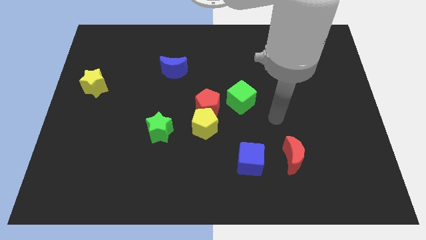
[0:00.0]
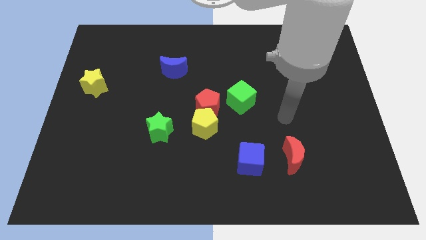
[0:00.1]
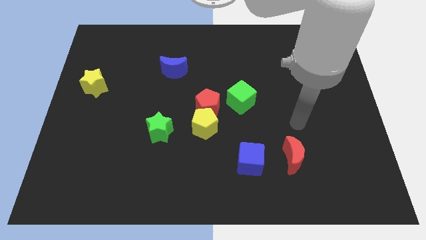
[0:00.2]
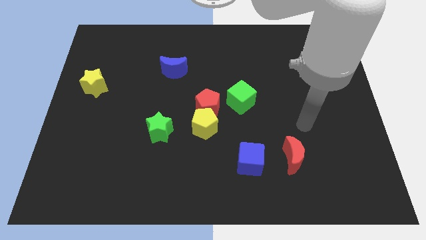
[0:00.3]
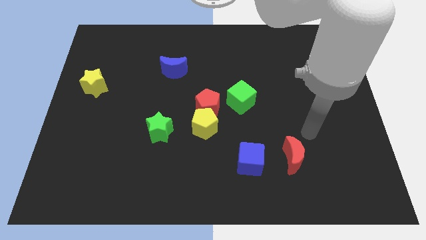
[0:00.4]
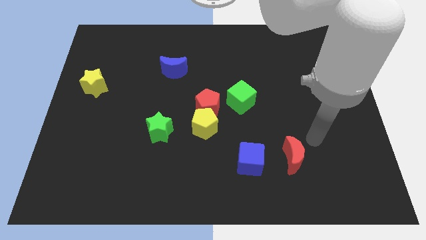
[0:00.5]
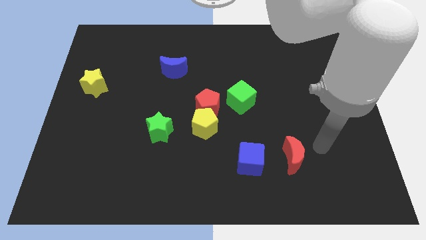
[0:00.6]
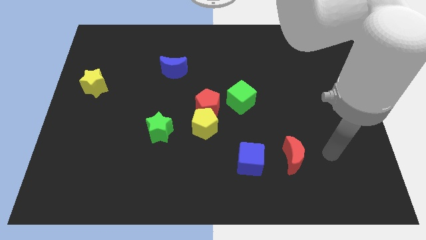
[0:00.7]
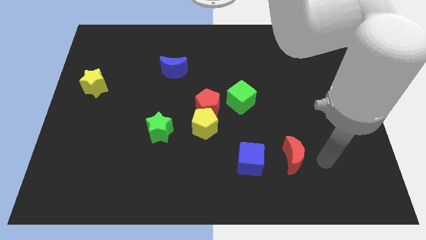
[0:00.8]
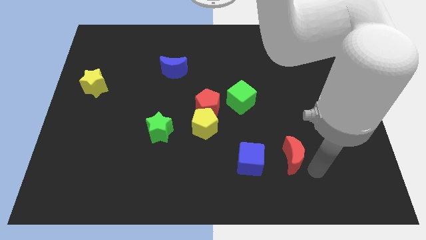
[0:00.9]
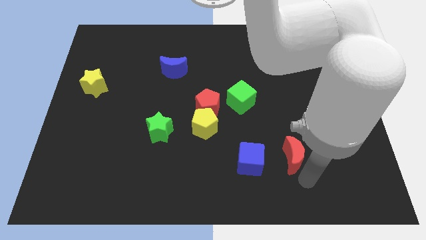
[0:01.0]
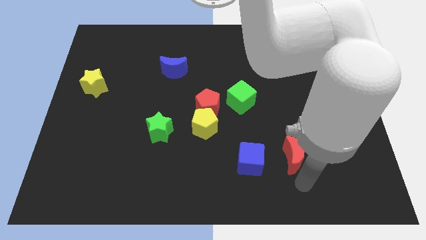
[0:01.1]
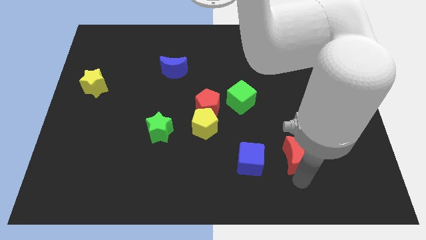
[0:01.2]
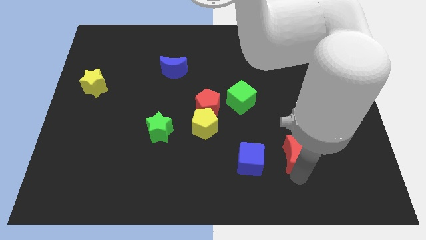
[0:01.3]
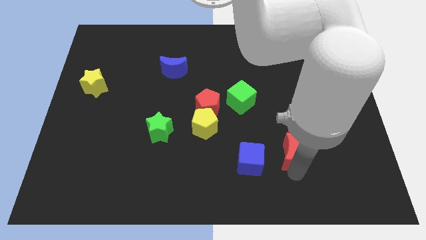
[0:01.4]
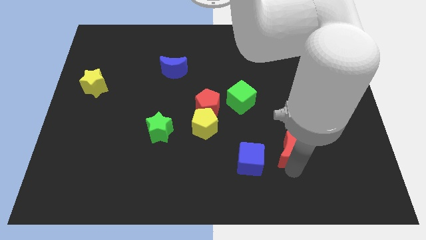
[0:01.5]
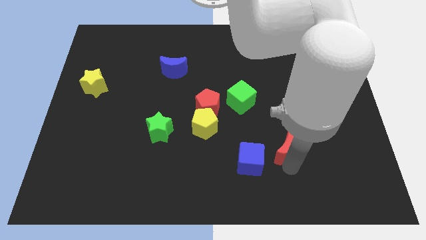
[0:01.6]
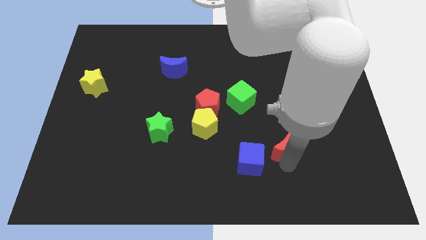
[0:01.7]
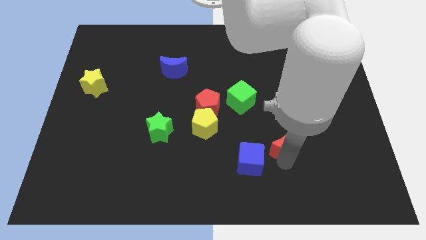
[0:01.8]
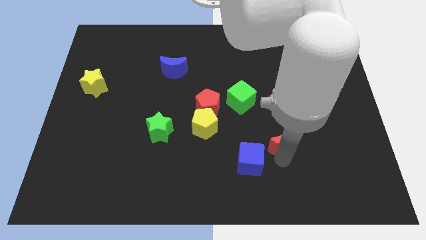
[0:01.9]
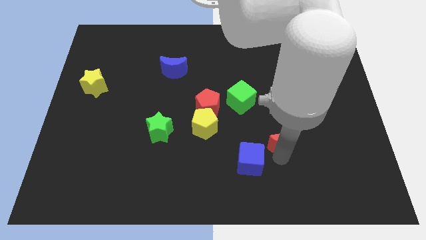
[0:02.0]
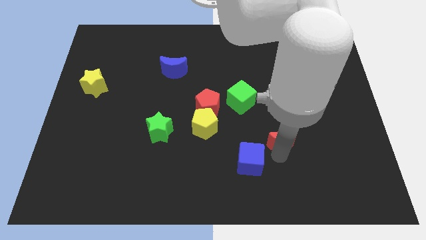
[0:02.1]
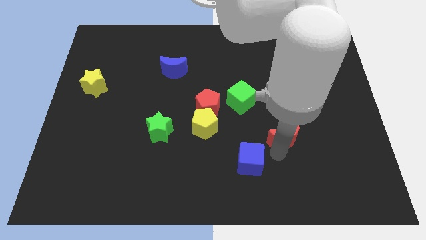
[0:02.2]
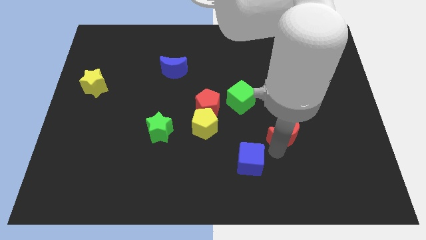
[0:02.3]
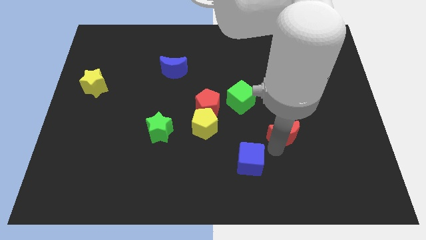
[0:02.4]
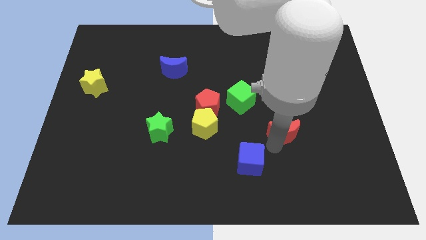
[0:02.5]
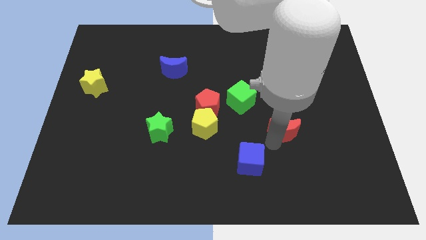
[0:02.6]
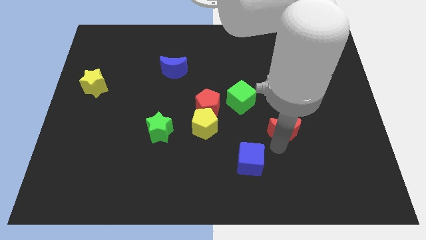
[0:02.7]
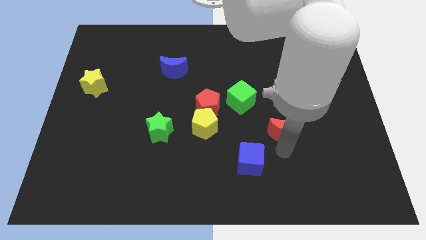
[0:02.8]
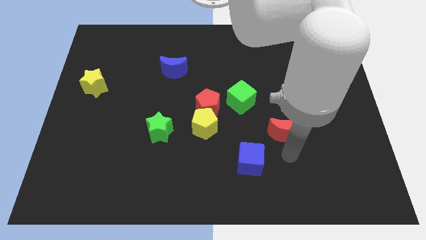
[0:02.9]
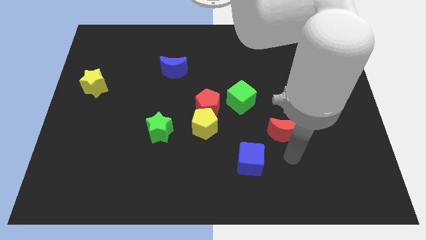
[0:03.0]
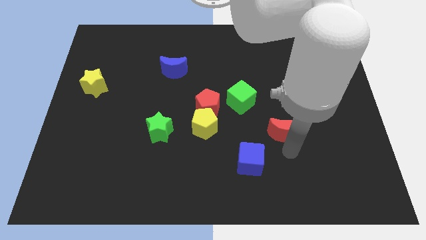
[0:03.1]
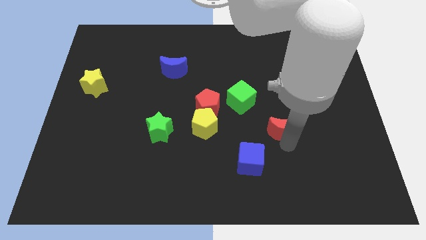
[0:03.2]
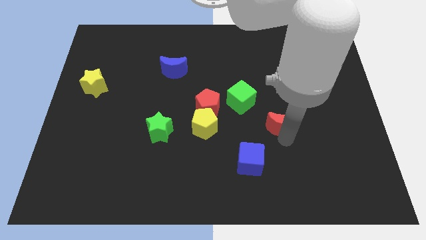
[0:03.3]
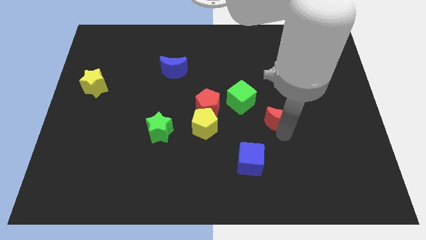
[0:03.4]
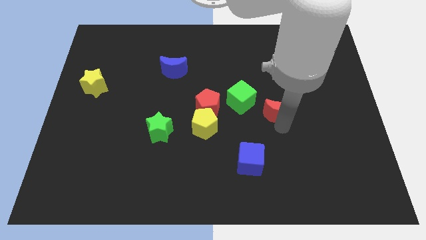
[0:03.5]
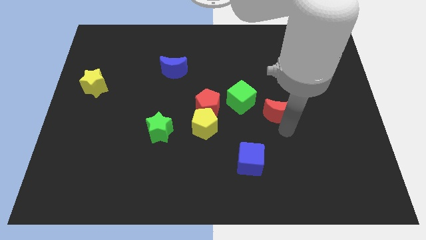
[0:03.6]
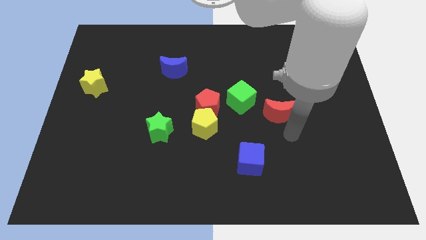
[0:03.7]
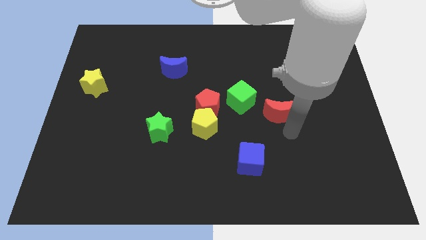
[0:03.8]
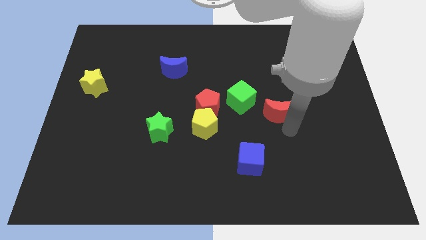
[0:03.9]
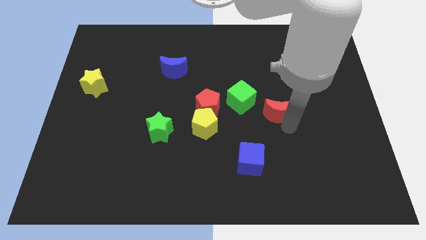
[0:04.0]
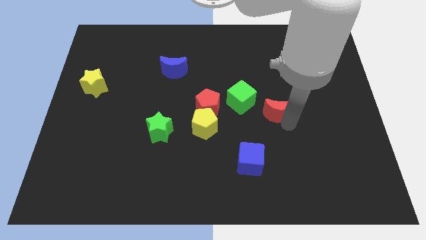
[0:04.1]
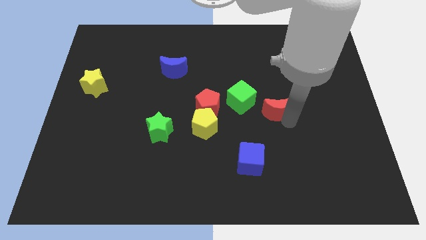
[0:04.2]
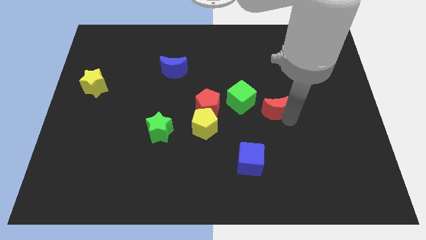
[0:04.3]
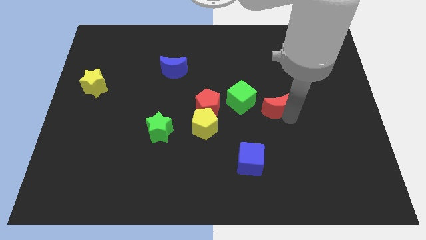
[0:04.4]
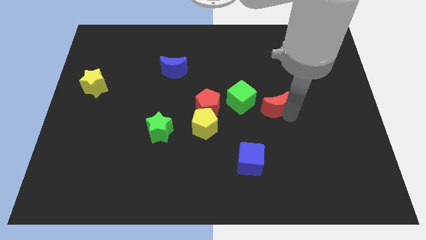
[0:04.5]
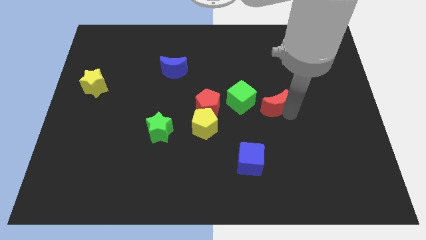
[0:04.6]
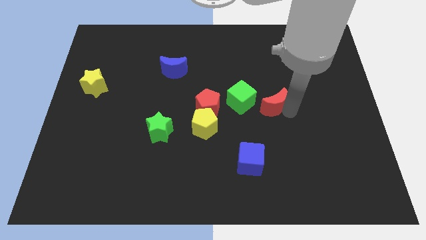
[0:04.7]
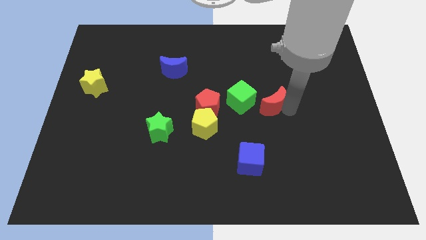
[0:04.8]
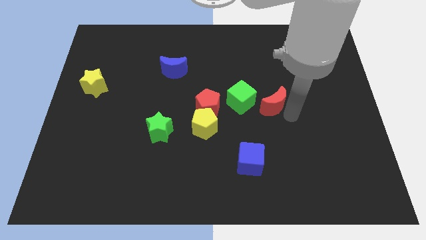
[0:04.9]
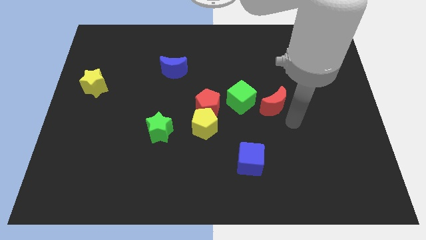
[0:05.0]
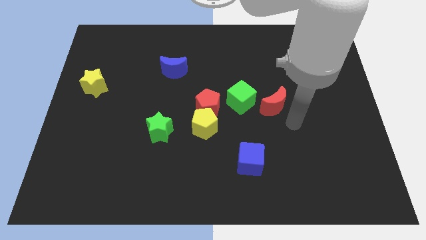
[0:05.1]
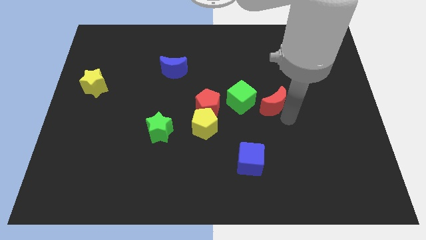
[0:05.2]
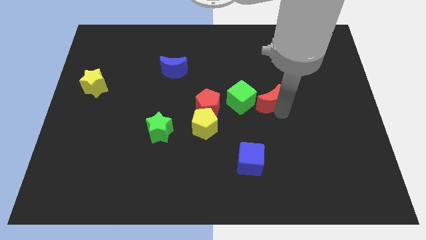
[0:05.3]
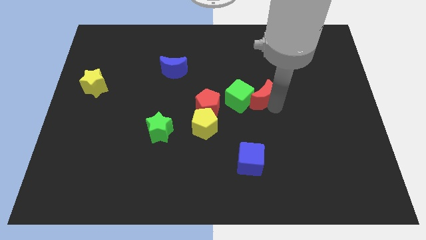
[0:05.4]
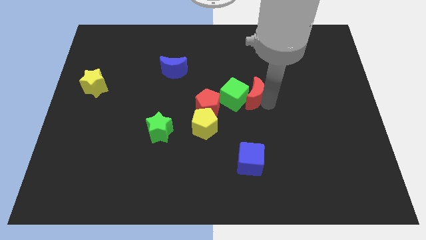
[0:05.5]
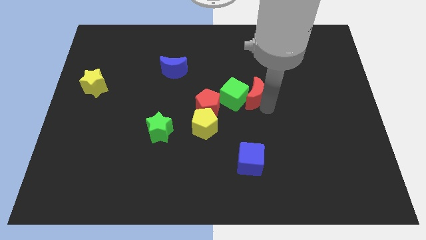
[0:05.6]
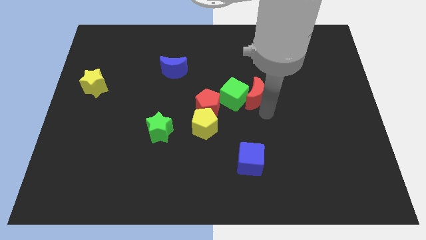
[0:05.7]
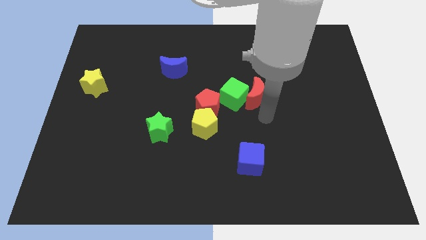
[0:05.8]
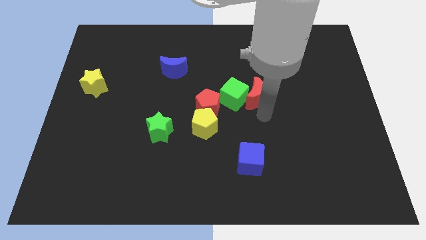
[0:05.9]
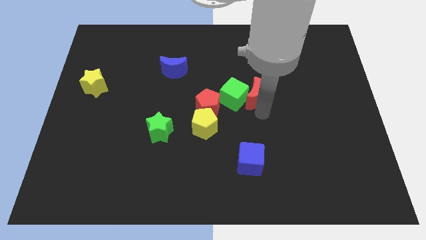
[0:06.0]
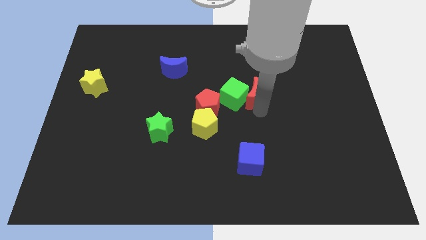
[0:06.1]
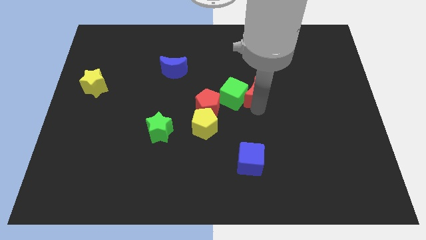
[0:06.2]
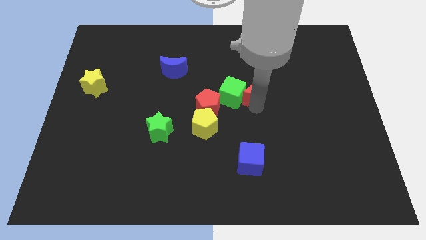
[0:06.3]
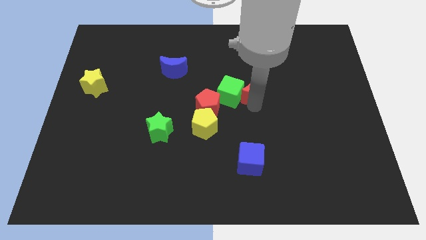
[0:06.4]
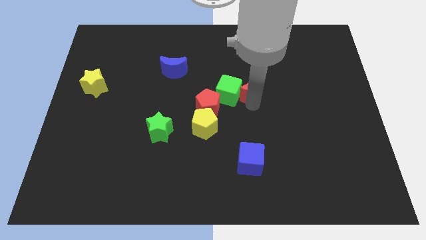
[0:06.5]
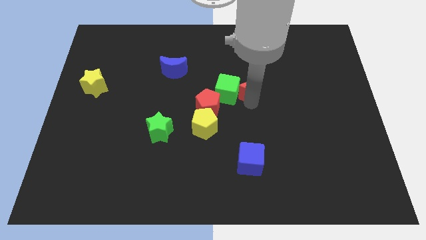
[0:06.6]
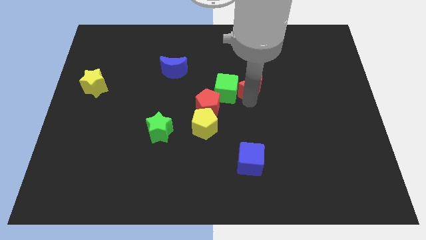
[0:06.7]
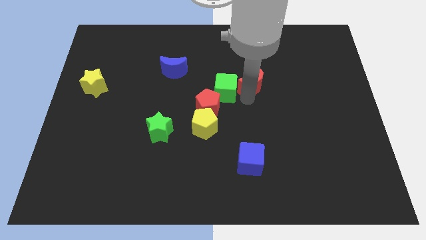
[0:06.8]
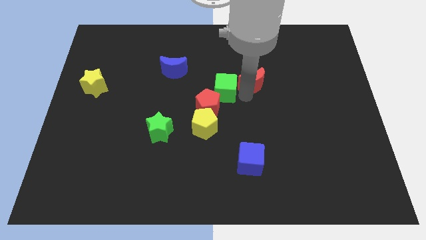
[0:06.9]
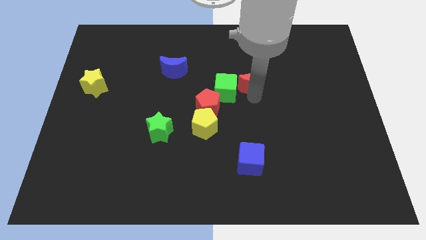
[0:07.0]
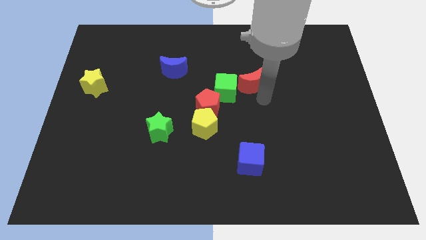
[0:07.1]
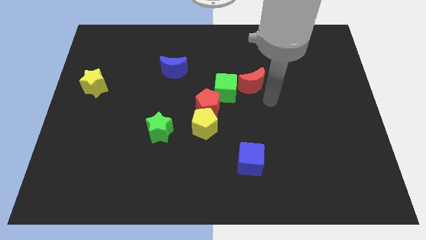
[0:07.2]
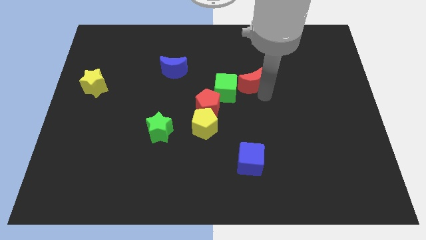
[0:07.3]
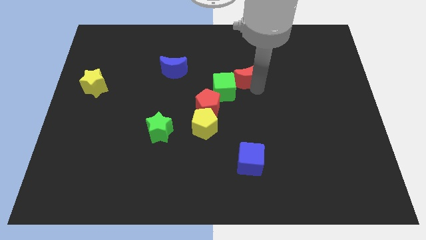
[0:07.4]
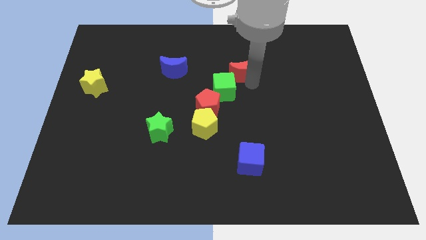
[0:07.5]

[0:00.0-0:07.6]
put the red moon to the top side of the green cube
